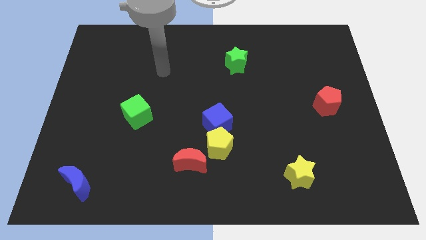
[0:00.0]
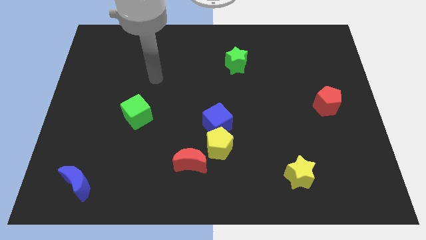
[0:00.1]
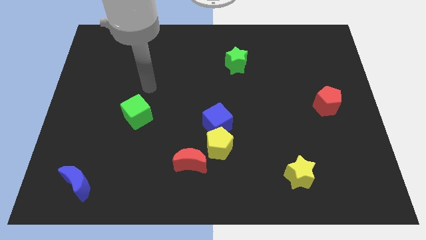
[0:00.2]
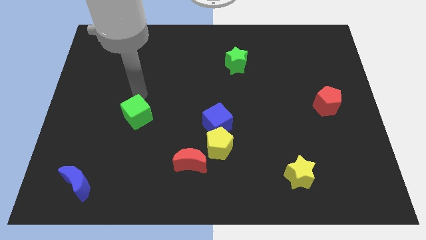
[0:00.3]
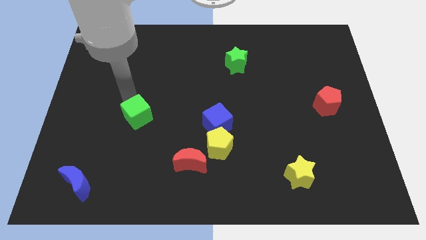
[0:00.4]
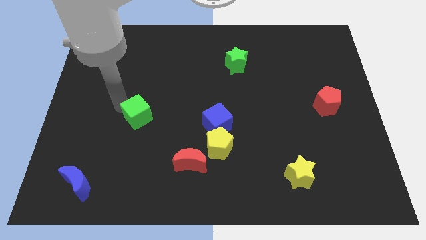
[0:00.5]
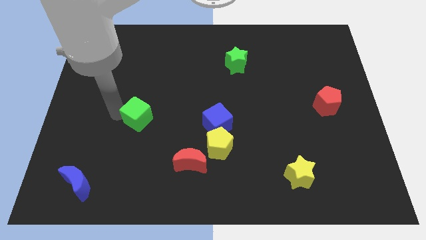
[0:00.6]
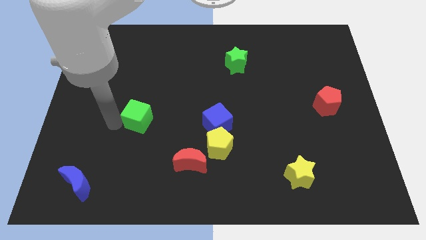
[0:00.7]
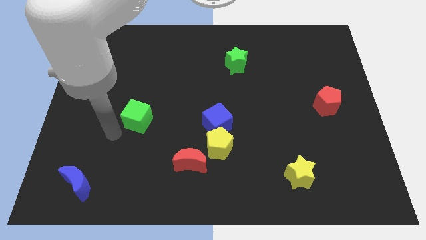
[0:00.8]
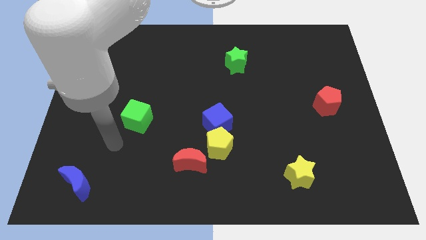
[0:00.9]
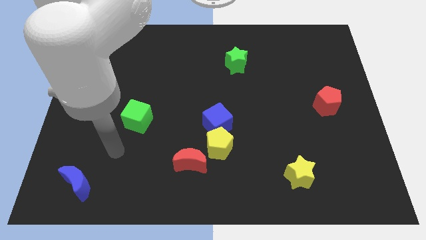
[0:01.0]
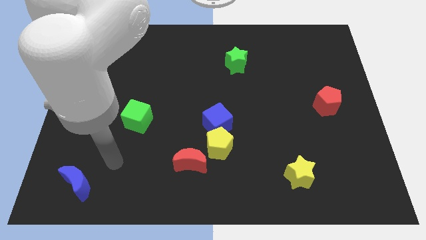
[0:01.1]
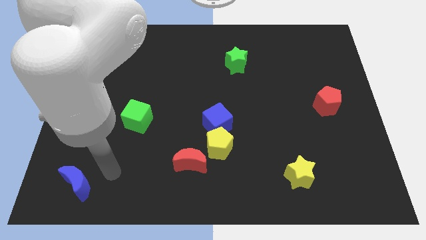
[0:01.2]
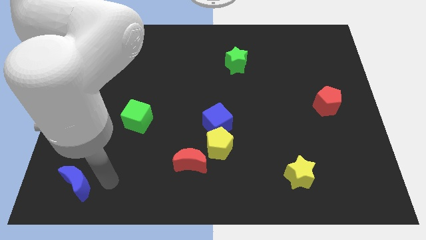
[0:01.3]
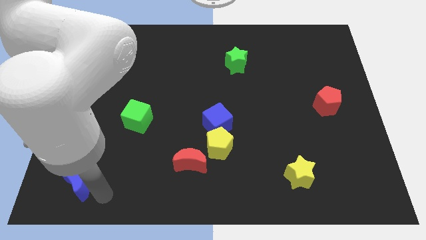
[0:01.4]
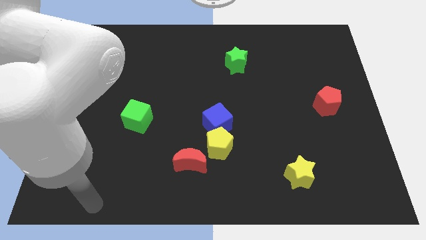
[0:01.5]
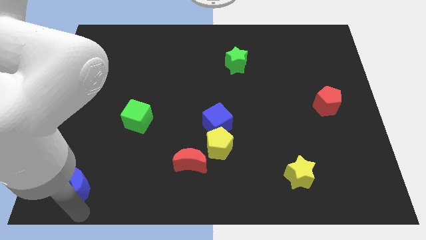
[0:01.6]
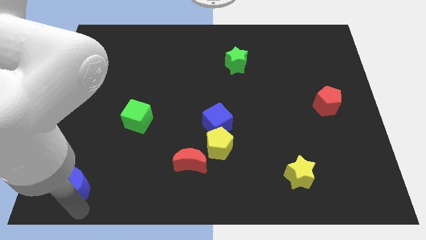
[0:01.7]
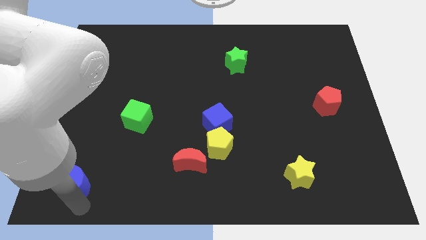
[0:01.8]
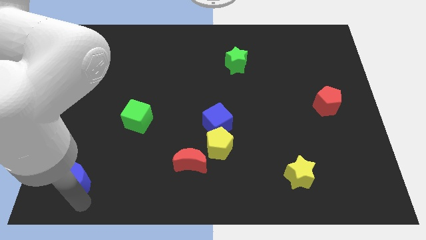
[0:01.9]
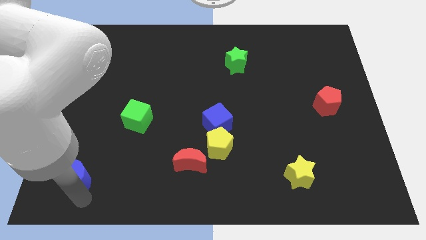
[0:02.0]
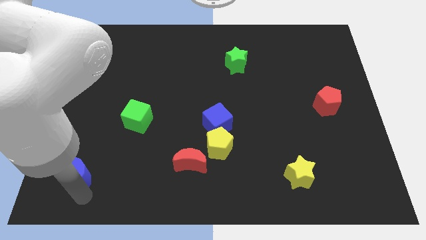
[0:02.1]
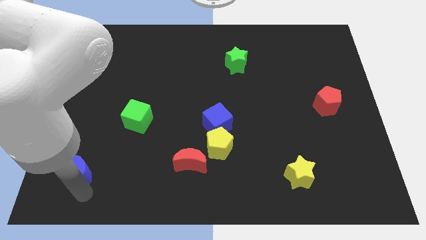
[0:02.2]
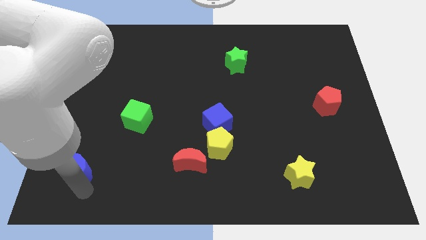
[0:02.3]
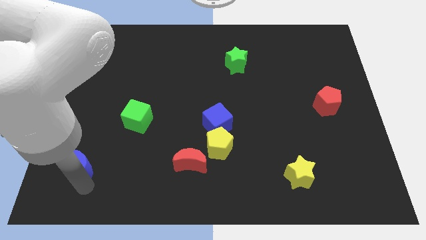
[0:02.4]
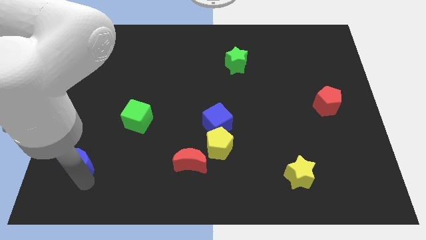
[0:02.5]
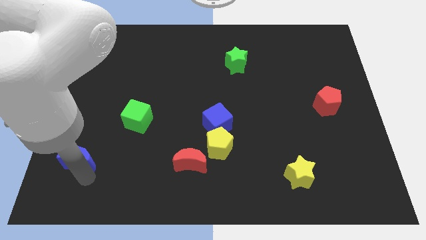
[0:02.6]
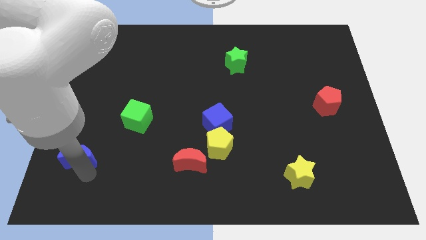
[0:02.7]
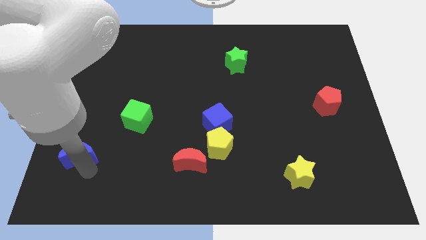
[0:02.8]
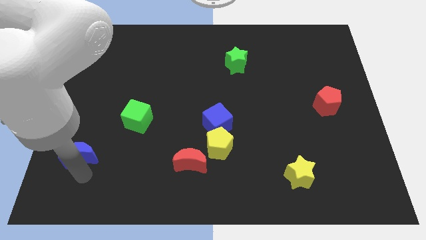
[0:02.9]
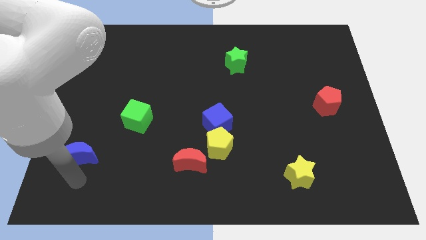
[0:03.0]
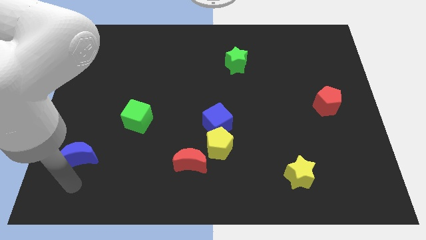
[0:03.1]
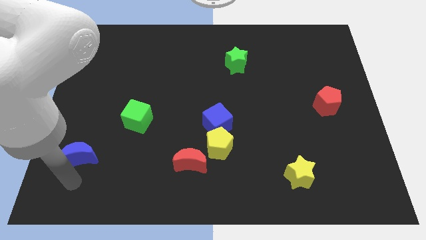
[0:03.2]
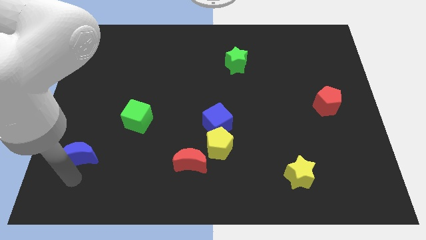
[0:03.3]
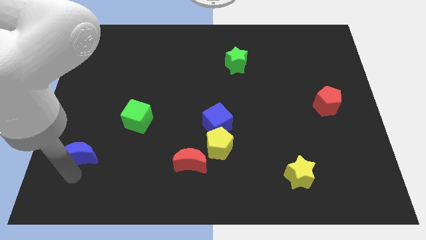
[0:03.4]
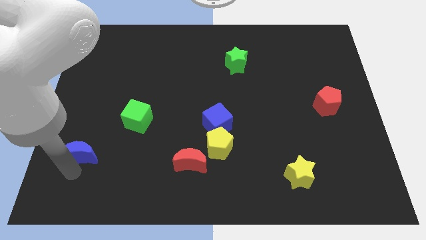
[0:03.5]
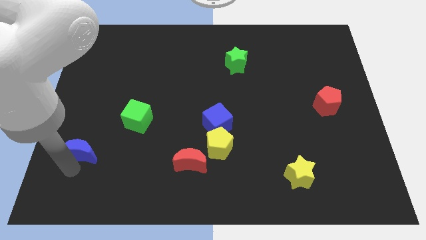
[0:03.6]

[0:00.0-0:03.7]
push the blue moon a little upwards

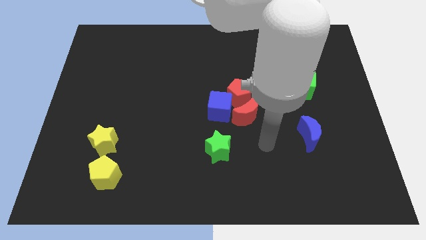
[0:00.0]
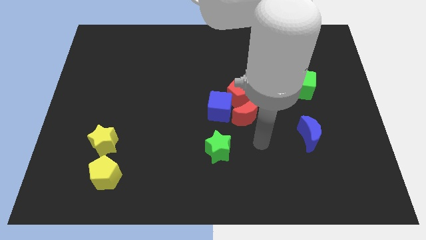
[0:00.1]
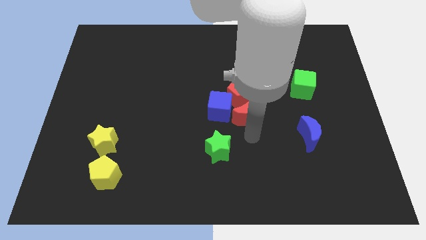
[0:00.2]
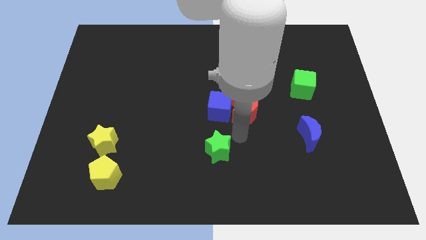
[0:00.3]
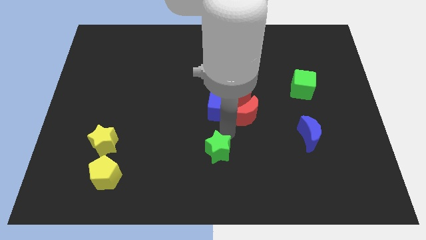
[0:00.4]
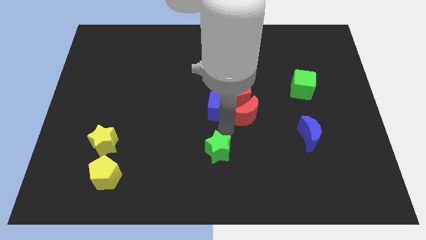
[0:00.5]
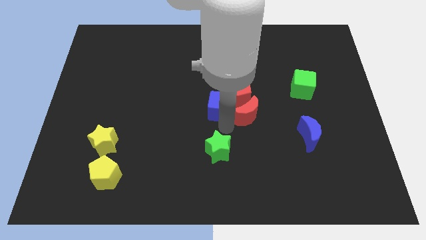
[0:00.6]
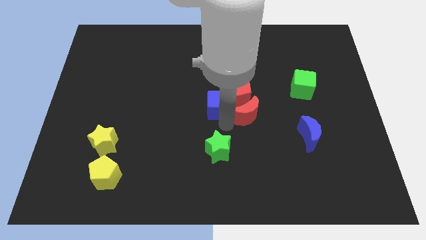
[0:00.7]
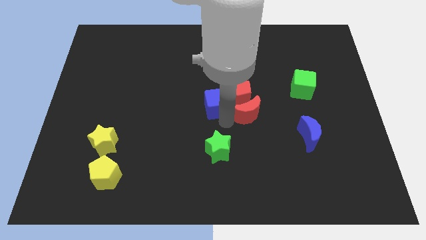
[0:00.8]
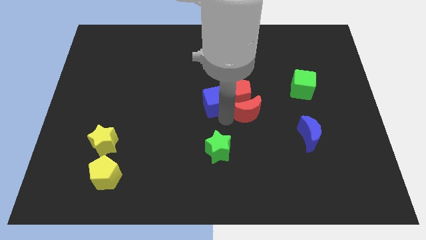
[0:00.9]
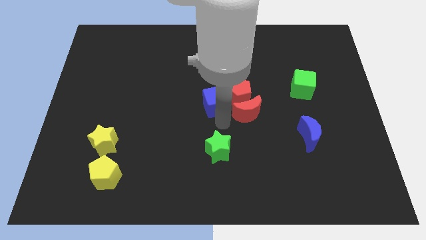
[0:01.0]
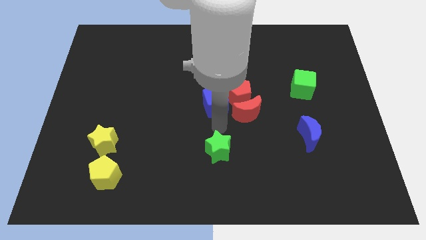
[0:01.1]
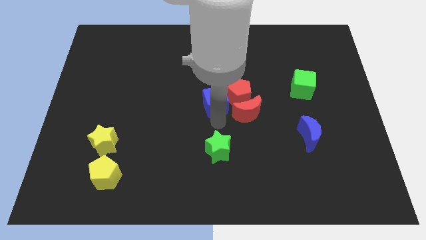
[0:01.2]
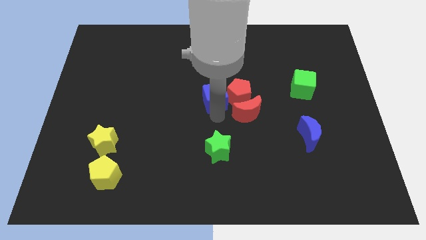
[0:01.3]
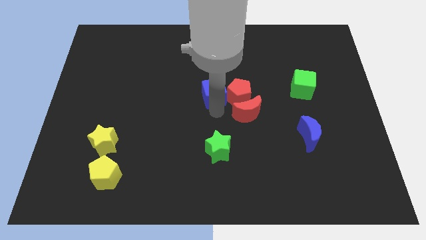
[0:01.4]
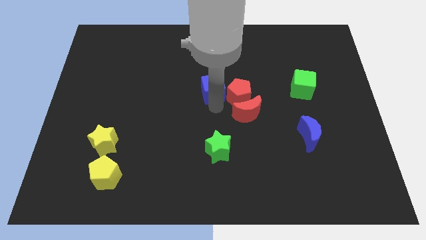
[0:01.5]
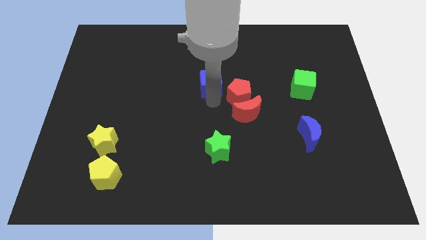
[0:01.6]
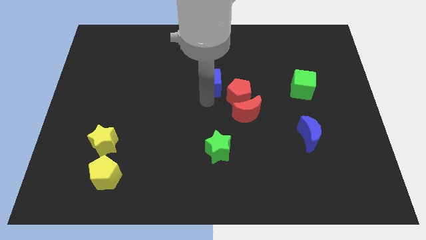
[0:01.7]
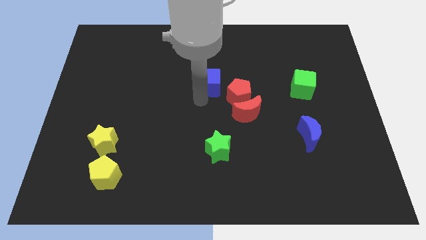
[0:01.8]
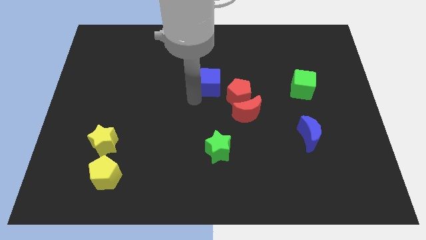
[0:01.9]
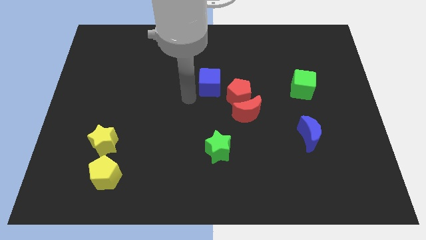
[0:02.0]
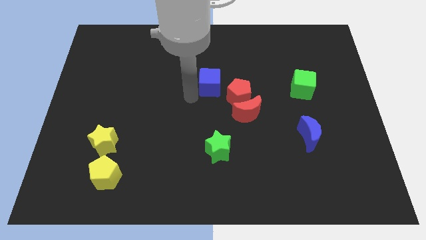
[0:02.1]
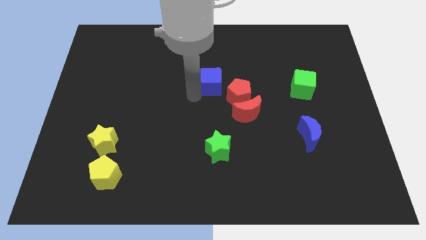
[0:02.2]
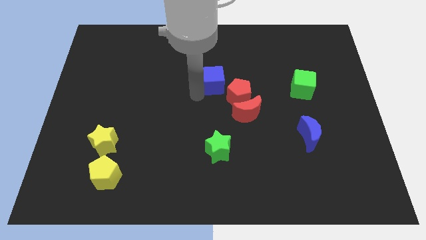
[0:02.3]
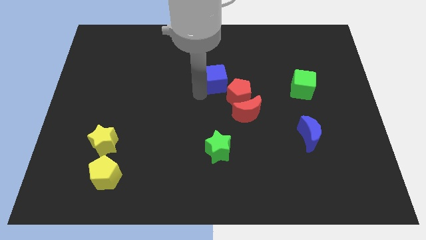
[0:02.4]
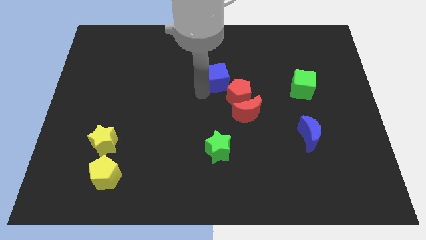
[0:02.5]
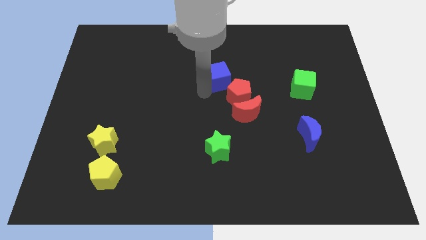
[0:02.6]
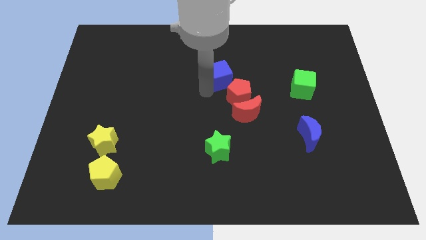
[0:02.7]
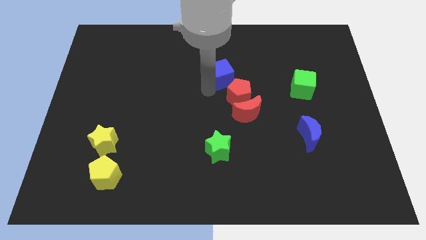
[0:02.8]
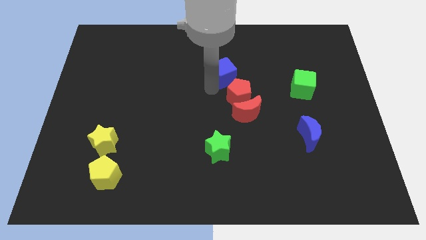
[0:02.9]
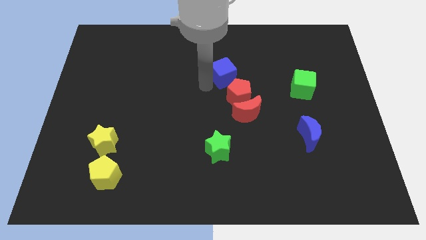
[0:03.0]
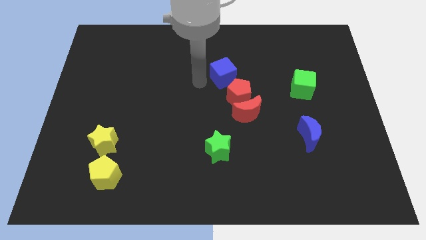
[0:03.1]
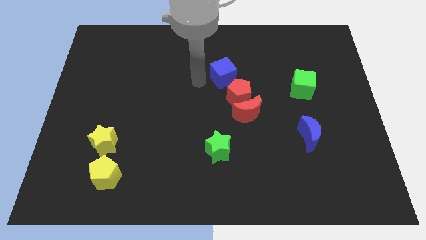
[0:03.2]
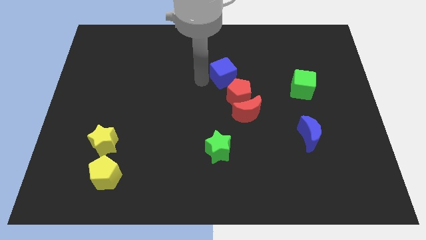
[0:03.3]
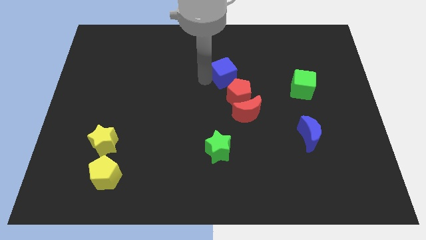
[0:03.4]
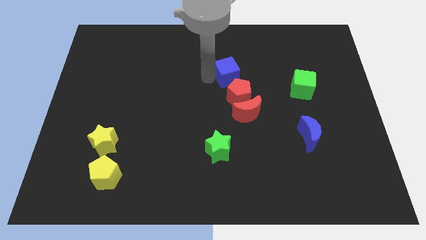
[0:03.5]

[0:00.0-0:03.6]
push the blue cube up and right slightly

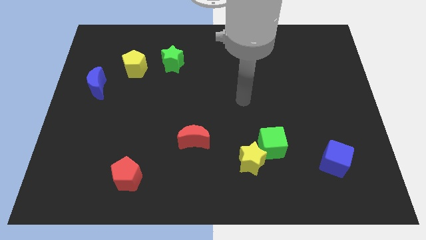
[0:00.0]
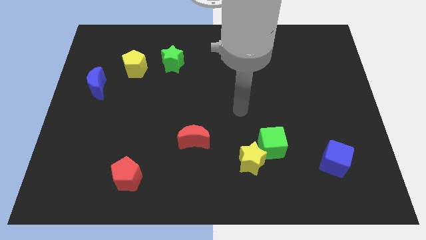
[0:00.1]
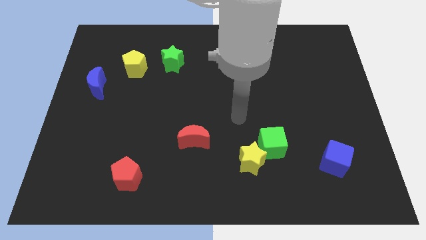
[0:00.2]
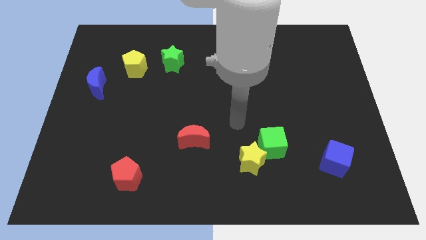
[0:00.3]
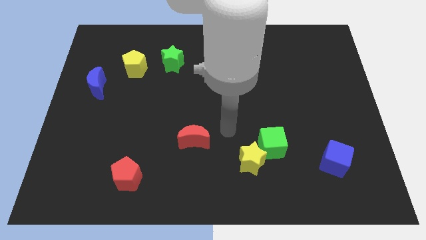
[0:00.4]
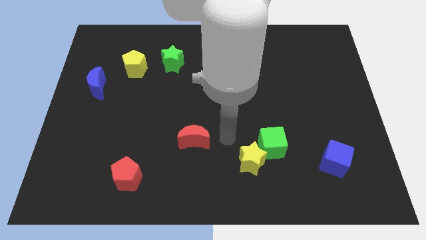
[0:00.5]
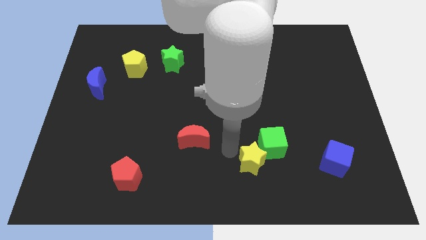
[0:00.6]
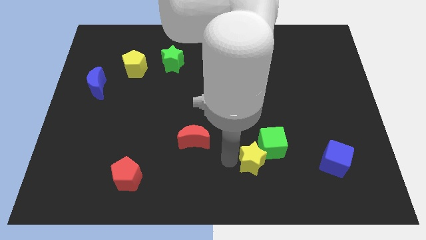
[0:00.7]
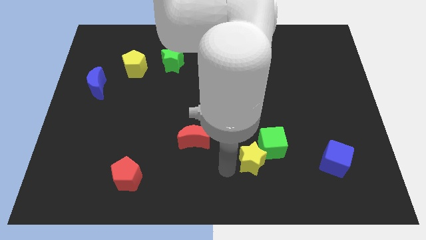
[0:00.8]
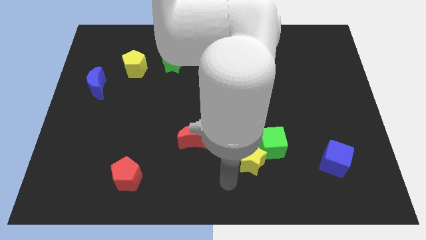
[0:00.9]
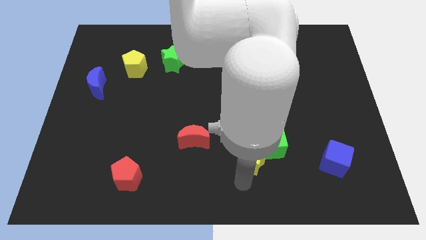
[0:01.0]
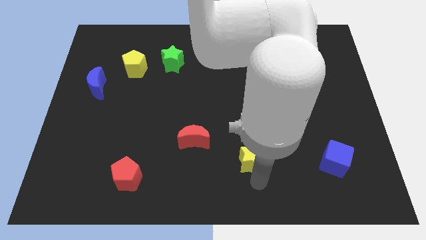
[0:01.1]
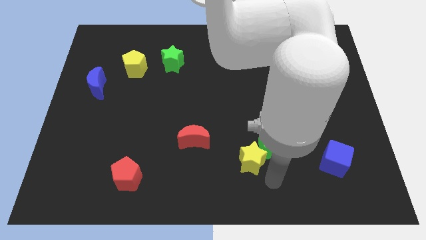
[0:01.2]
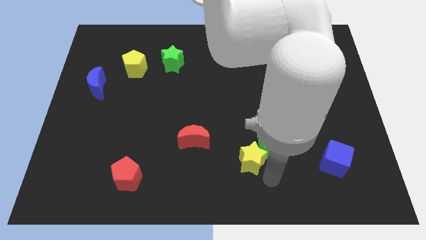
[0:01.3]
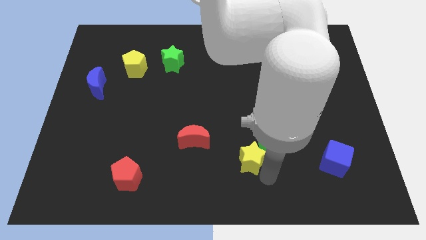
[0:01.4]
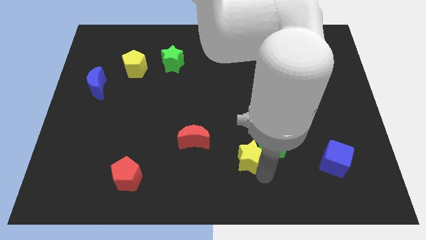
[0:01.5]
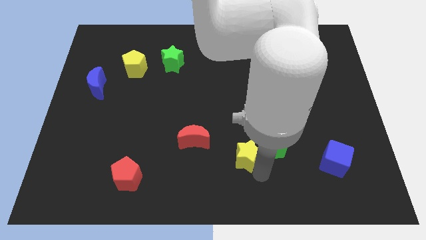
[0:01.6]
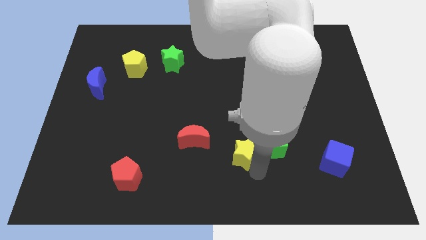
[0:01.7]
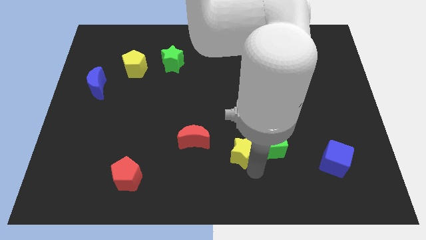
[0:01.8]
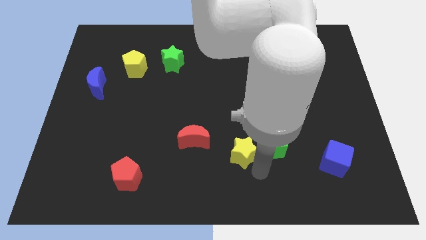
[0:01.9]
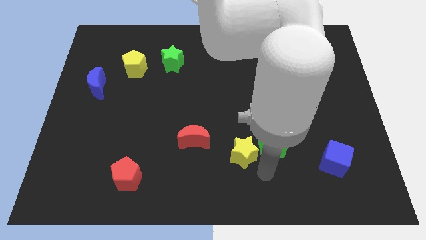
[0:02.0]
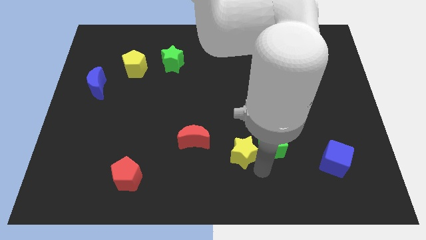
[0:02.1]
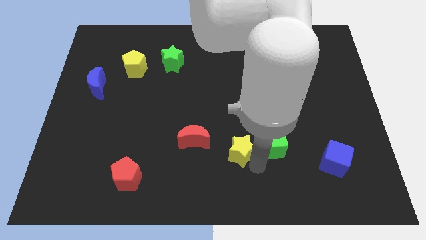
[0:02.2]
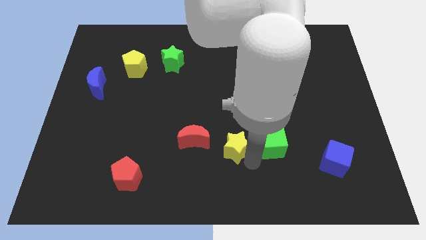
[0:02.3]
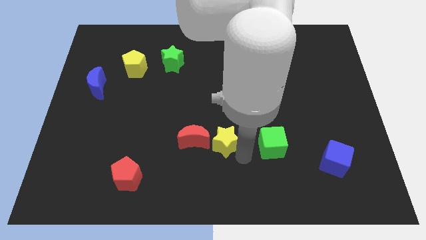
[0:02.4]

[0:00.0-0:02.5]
move the yellow star a little up and then left
